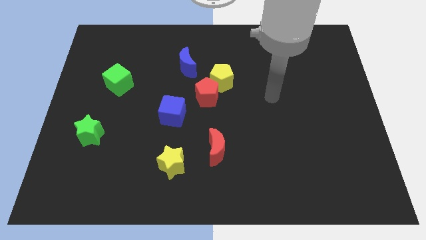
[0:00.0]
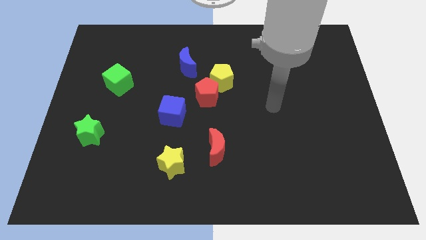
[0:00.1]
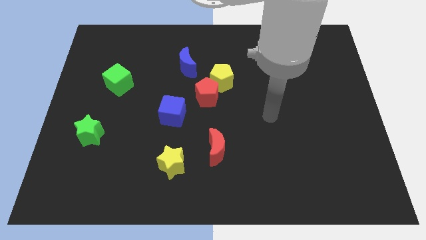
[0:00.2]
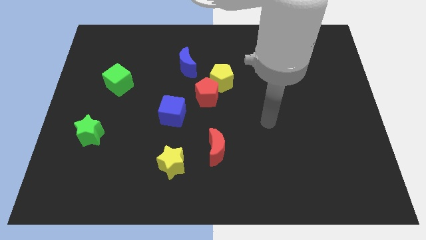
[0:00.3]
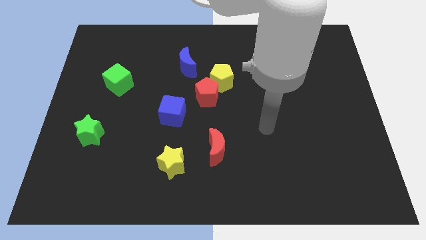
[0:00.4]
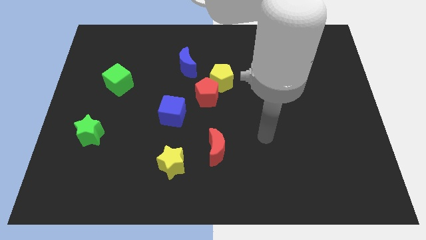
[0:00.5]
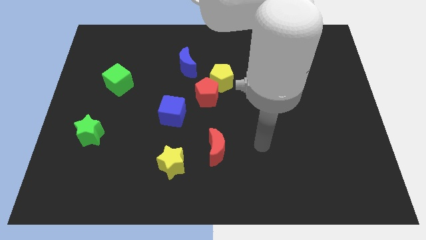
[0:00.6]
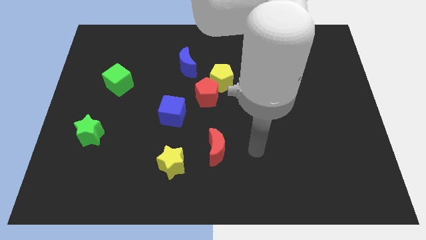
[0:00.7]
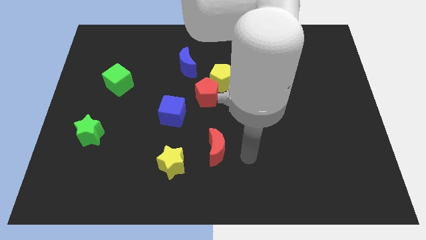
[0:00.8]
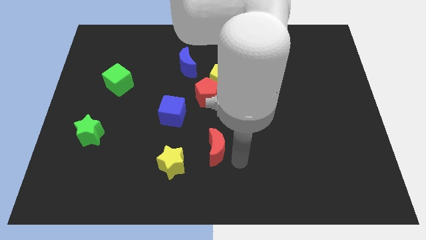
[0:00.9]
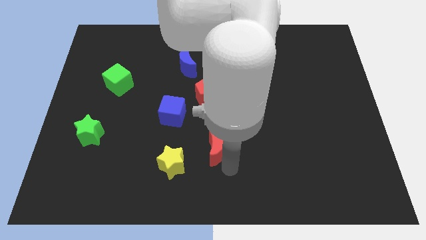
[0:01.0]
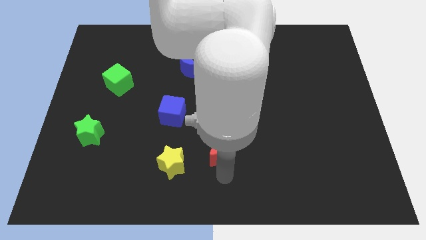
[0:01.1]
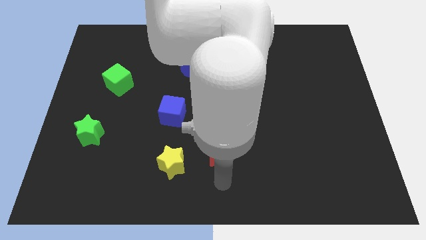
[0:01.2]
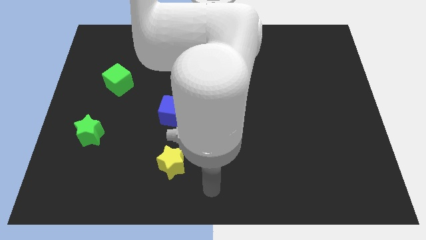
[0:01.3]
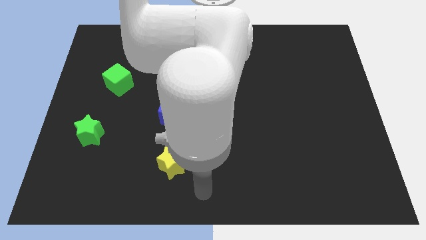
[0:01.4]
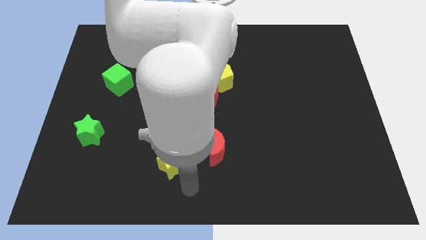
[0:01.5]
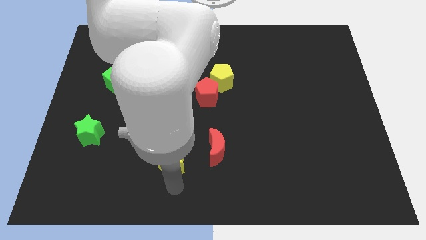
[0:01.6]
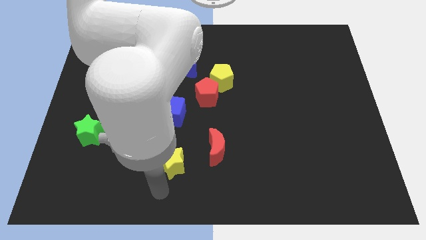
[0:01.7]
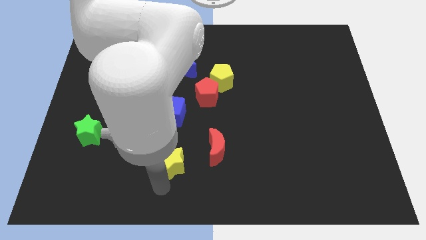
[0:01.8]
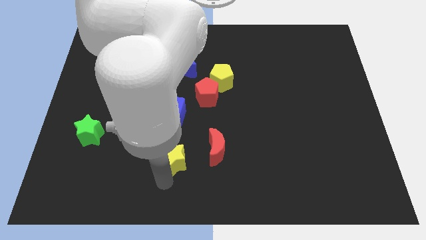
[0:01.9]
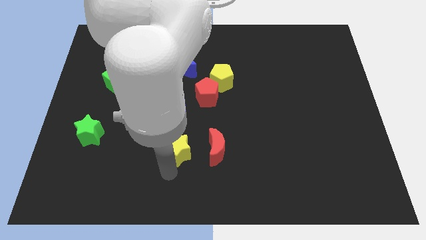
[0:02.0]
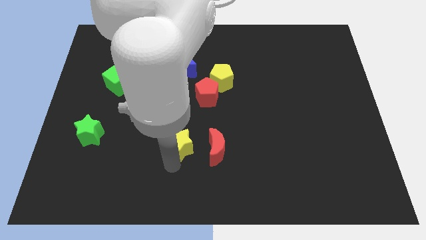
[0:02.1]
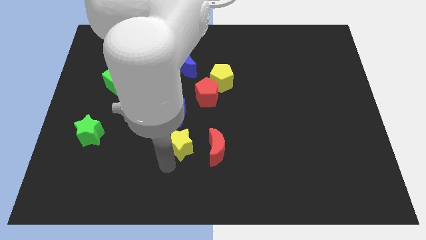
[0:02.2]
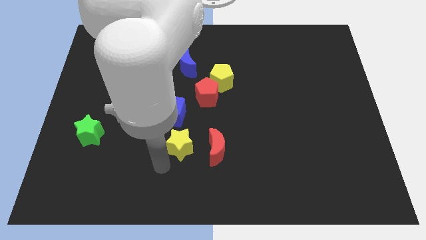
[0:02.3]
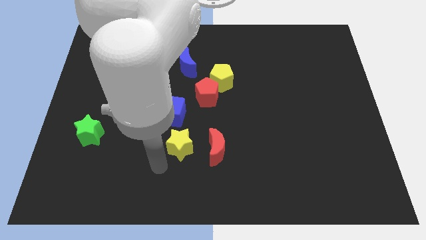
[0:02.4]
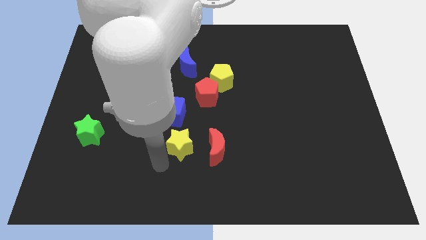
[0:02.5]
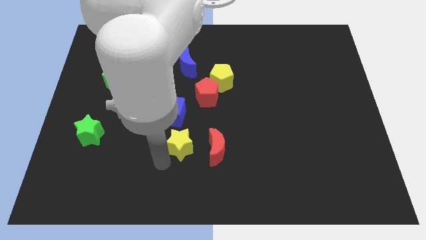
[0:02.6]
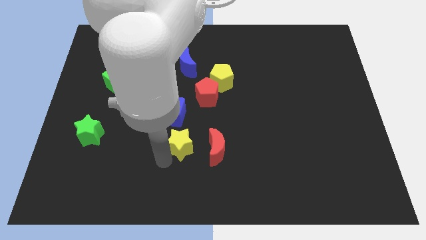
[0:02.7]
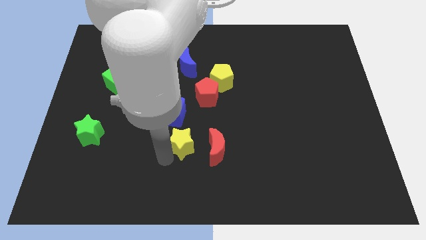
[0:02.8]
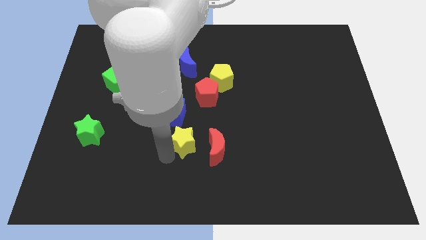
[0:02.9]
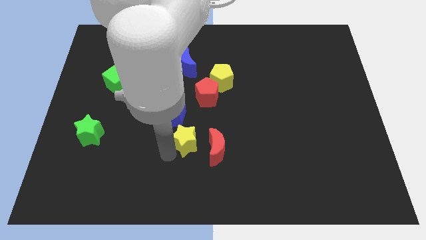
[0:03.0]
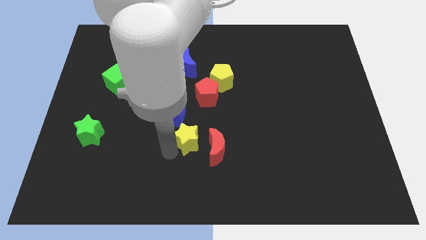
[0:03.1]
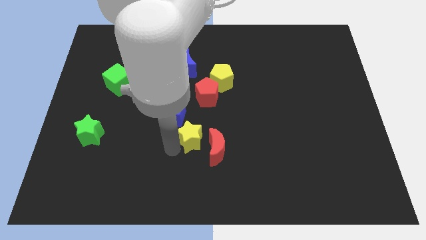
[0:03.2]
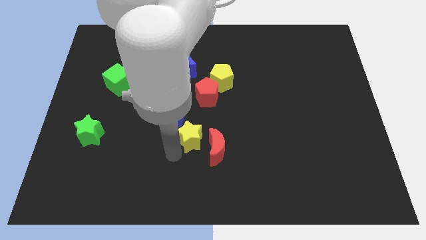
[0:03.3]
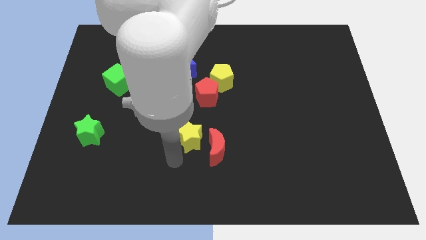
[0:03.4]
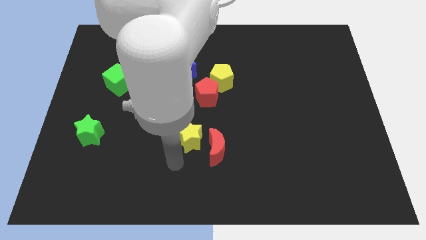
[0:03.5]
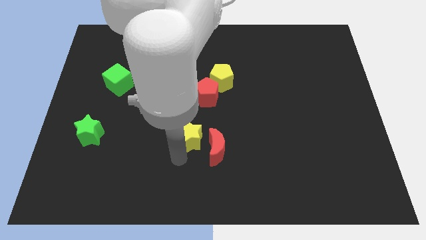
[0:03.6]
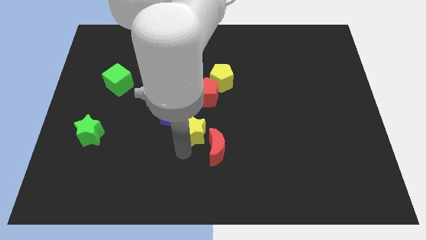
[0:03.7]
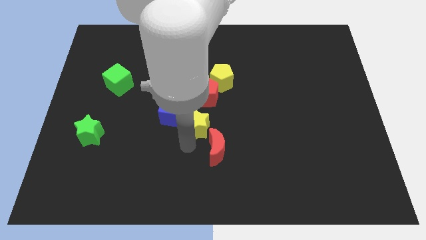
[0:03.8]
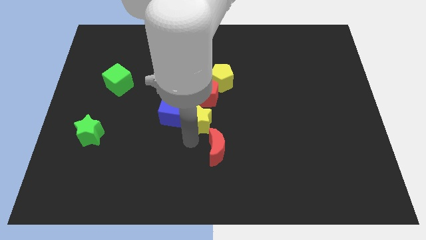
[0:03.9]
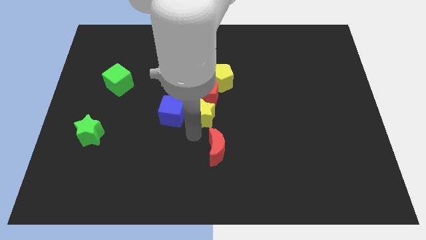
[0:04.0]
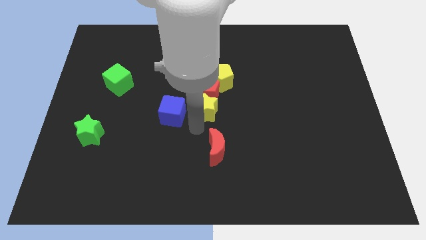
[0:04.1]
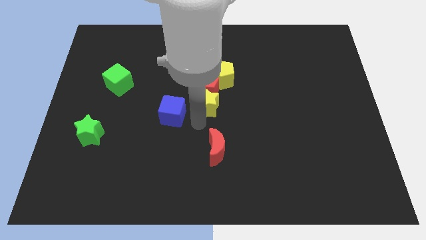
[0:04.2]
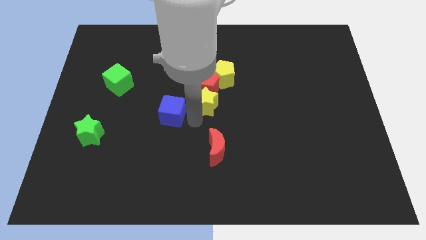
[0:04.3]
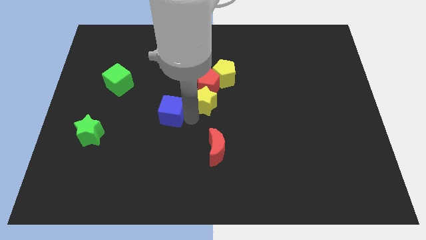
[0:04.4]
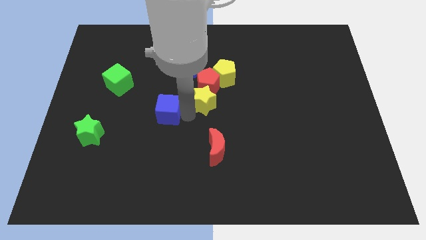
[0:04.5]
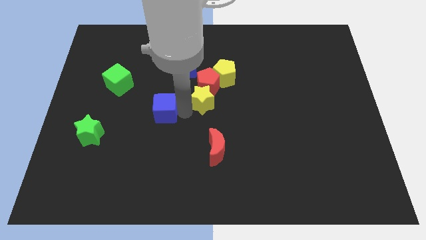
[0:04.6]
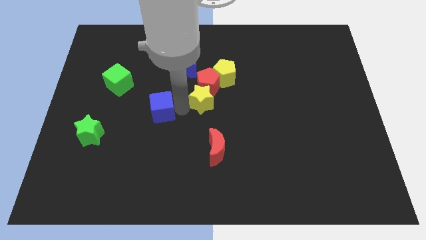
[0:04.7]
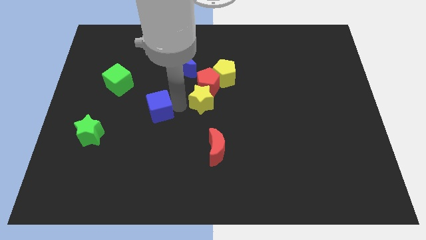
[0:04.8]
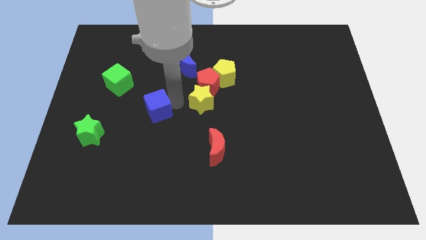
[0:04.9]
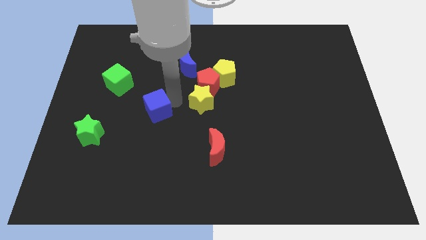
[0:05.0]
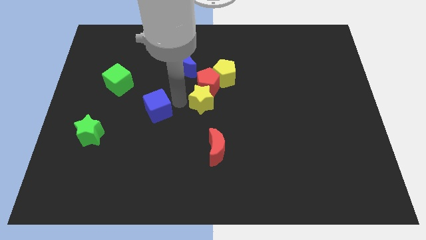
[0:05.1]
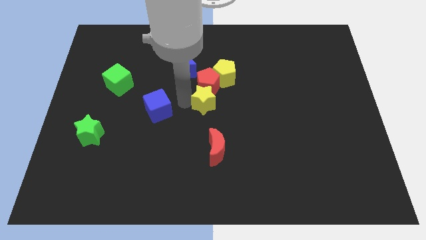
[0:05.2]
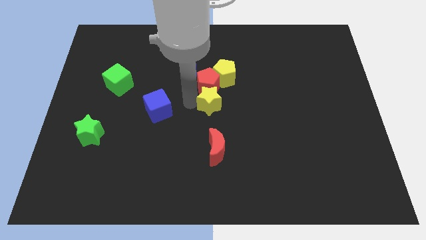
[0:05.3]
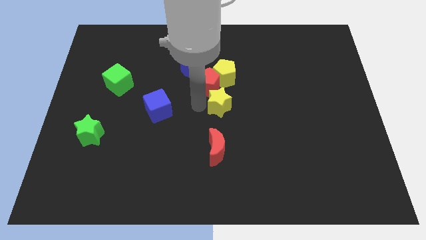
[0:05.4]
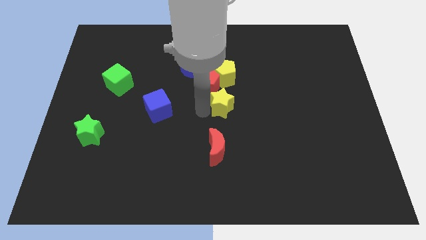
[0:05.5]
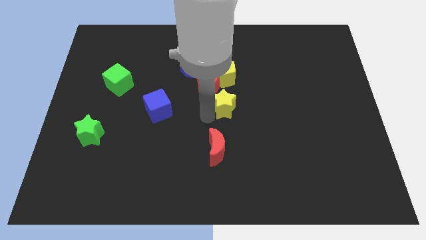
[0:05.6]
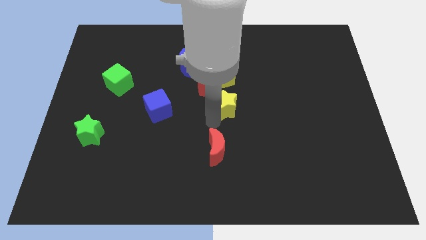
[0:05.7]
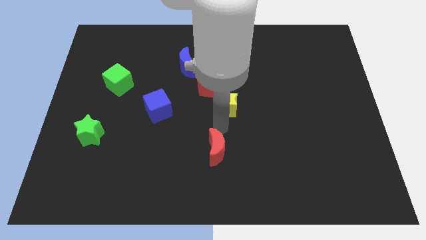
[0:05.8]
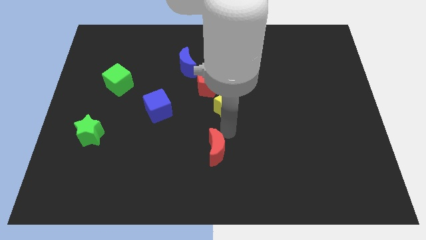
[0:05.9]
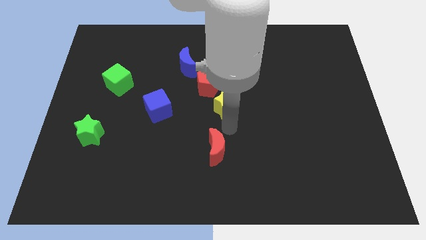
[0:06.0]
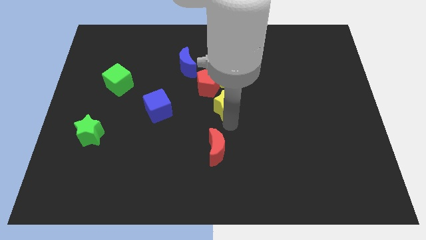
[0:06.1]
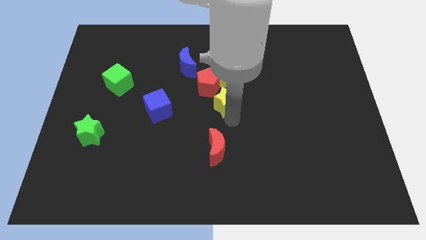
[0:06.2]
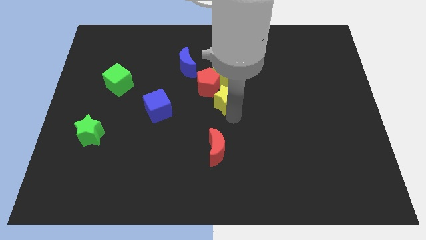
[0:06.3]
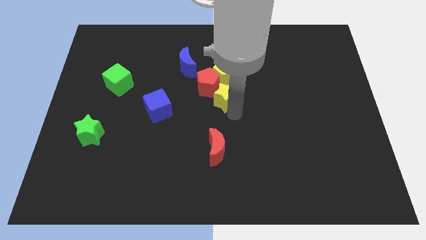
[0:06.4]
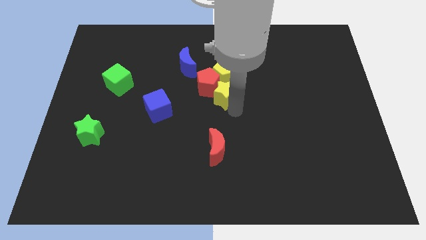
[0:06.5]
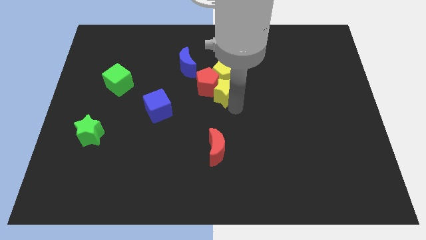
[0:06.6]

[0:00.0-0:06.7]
push the yellow star close to the yellow pentagon
